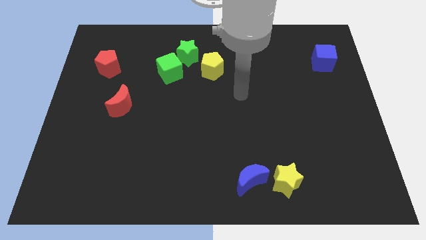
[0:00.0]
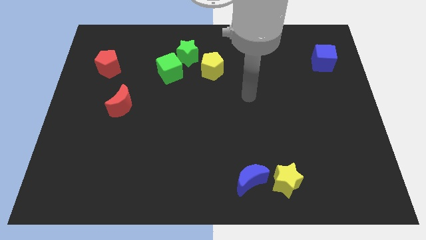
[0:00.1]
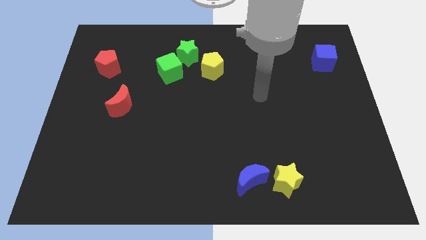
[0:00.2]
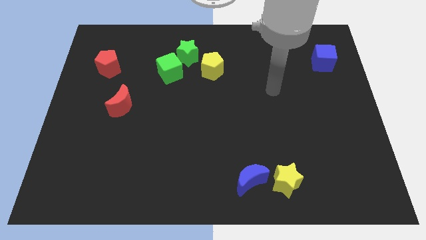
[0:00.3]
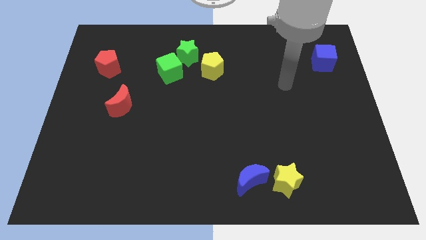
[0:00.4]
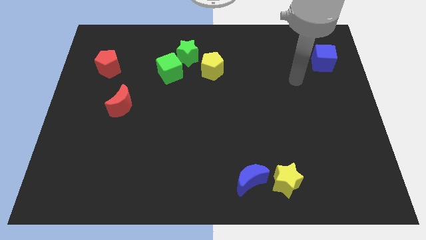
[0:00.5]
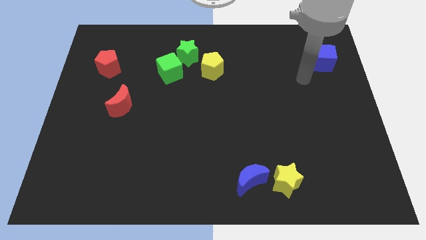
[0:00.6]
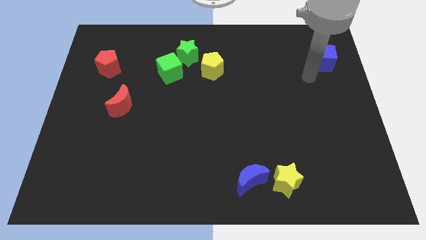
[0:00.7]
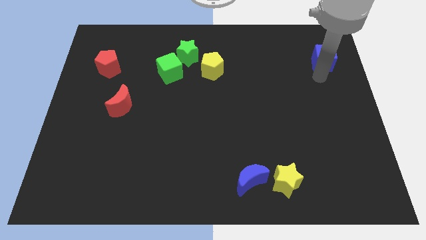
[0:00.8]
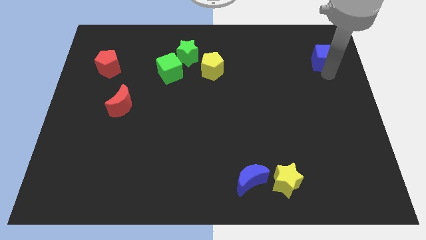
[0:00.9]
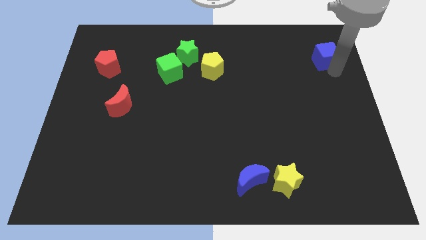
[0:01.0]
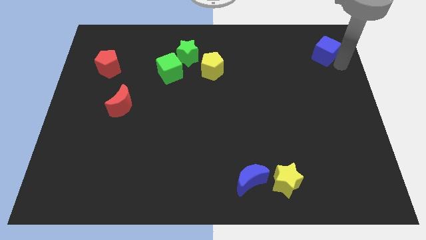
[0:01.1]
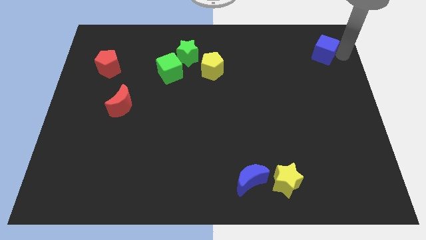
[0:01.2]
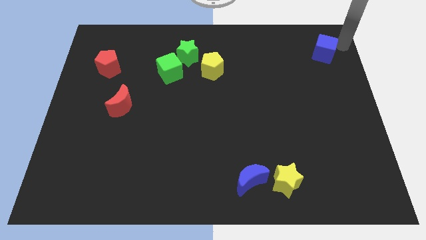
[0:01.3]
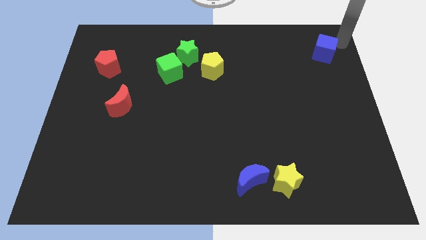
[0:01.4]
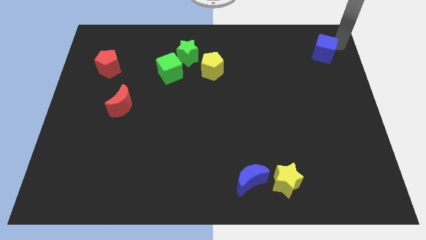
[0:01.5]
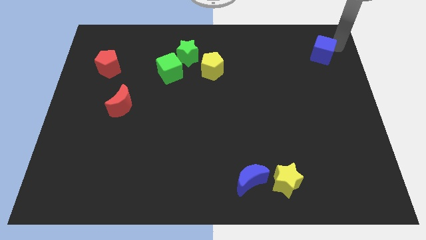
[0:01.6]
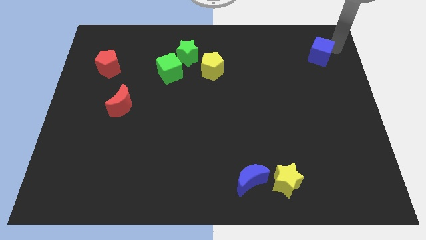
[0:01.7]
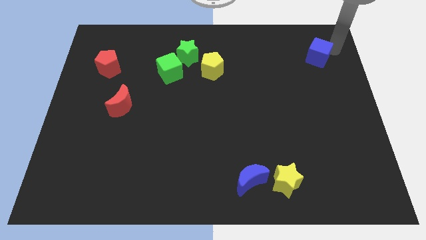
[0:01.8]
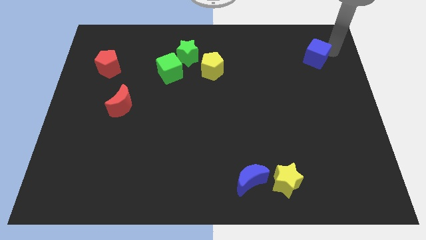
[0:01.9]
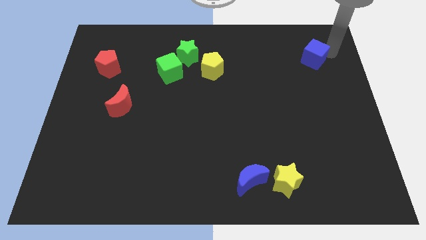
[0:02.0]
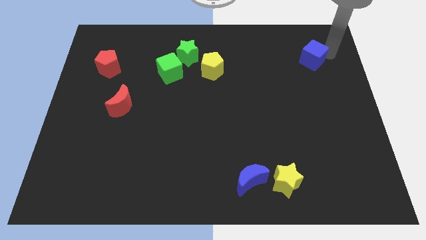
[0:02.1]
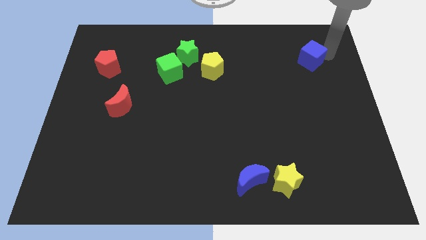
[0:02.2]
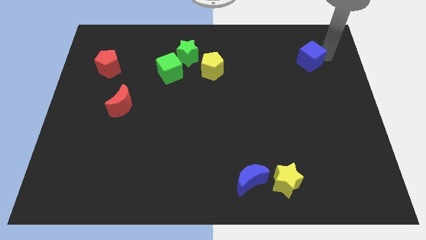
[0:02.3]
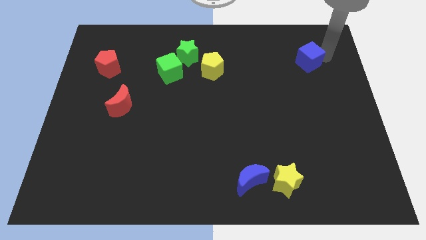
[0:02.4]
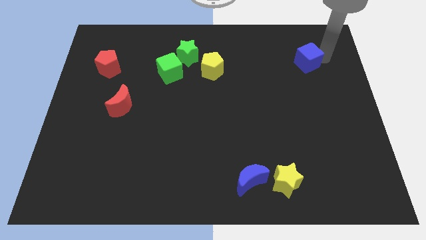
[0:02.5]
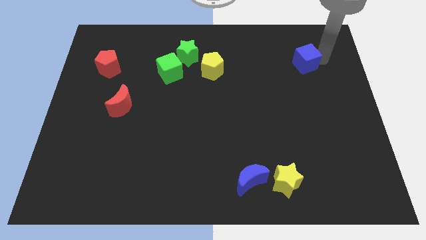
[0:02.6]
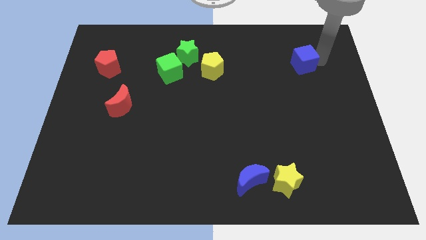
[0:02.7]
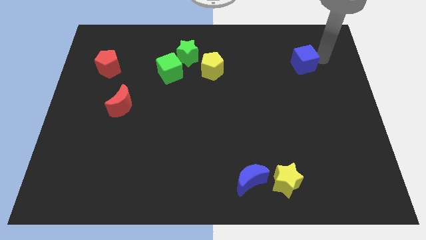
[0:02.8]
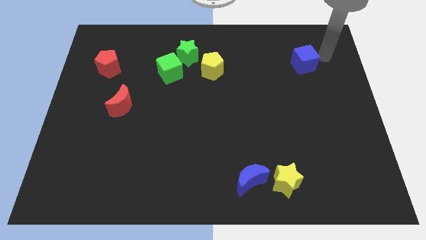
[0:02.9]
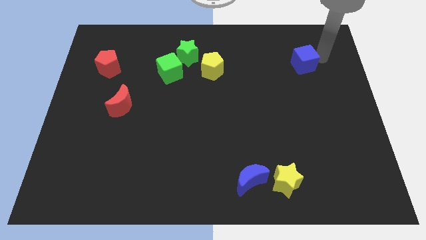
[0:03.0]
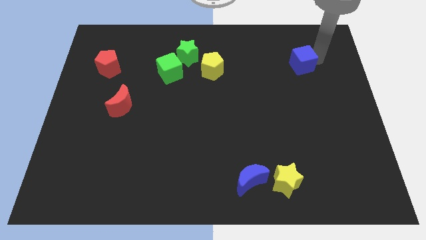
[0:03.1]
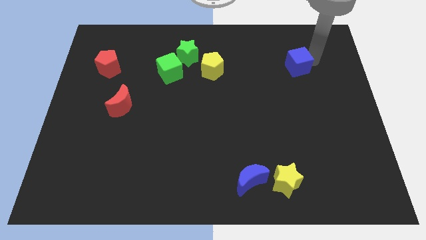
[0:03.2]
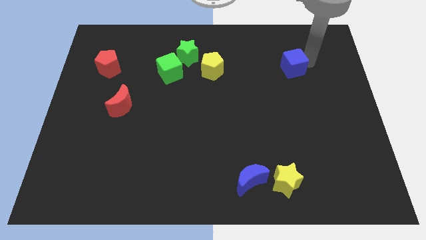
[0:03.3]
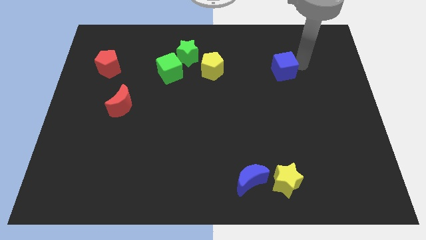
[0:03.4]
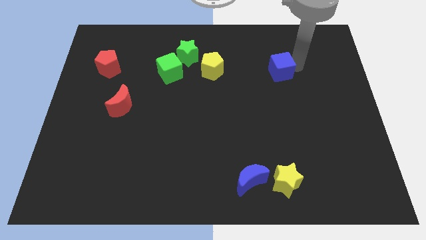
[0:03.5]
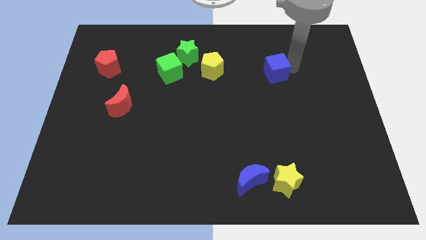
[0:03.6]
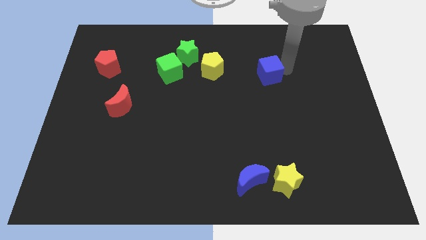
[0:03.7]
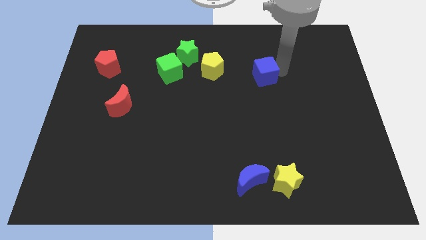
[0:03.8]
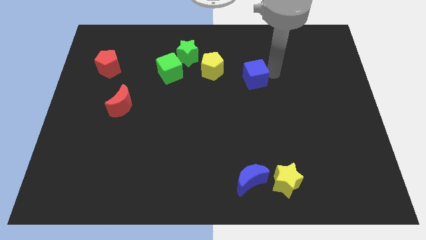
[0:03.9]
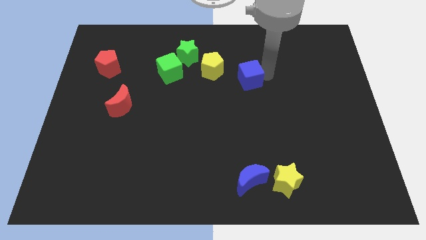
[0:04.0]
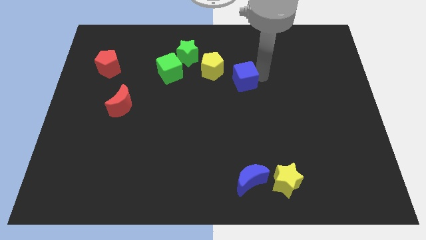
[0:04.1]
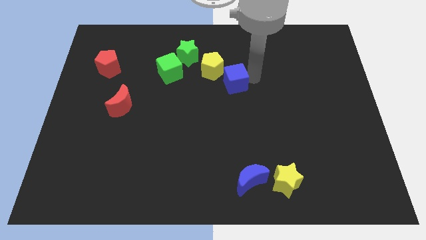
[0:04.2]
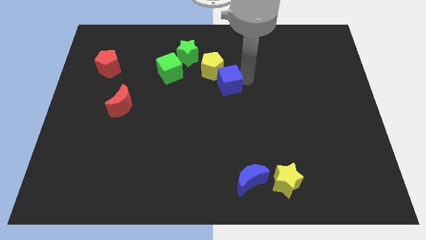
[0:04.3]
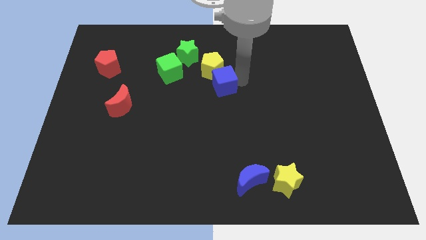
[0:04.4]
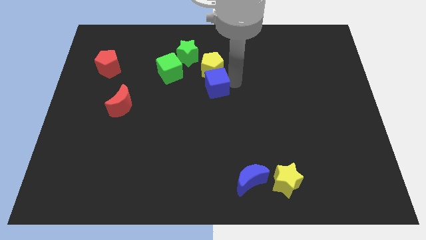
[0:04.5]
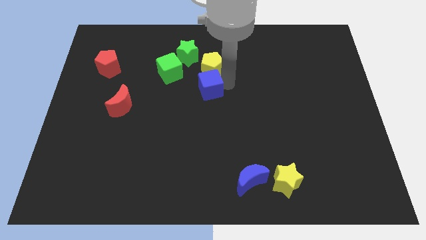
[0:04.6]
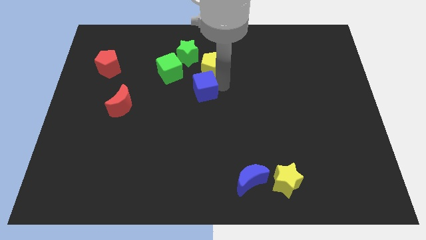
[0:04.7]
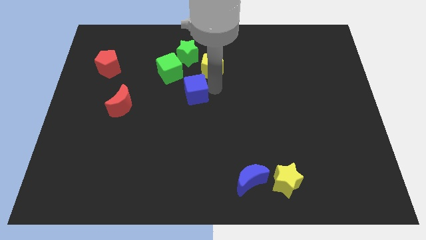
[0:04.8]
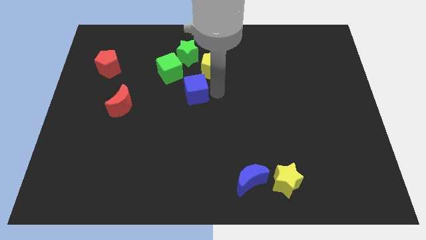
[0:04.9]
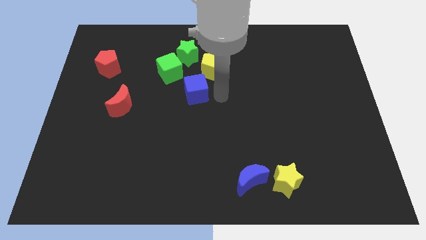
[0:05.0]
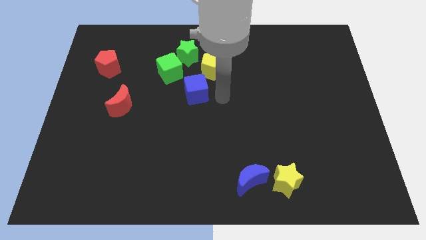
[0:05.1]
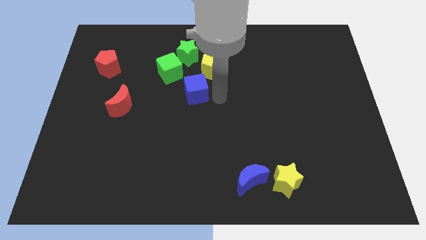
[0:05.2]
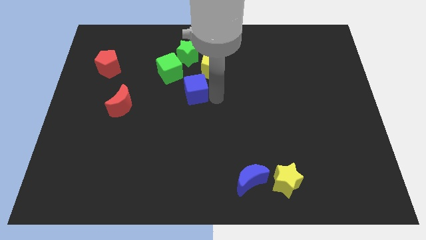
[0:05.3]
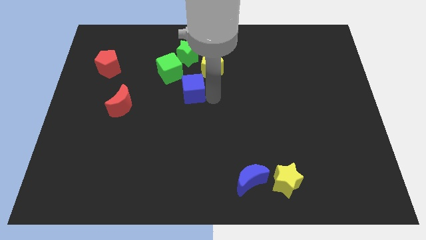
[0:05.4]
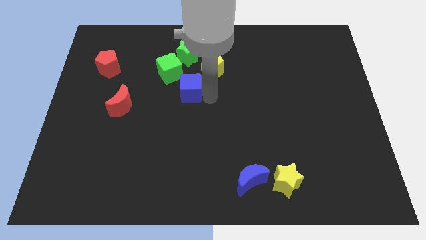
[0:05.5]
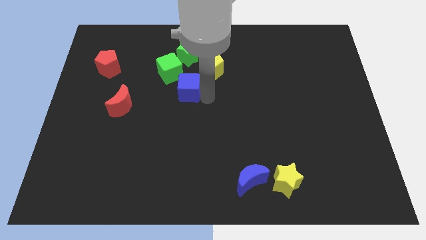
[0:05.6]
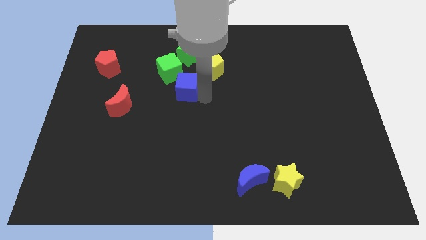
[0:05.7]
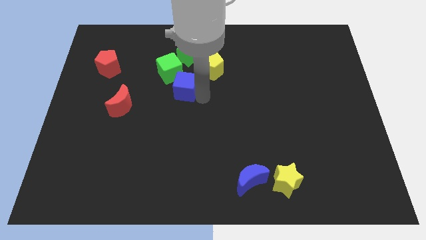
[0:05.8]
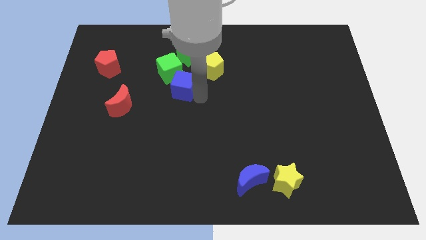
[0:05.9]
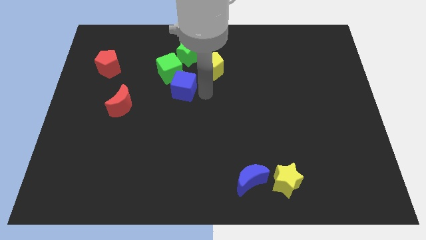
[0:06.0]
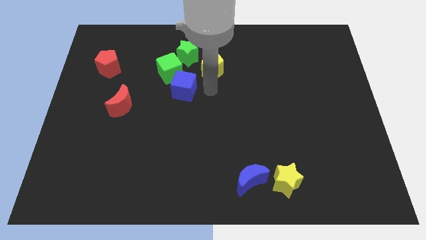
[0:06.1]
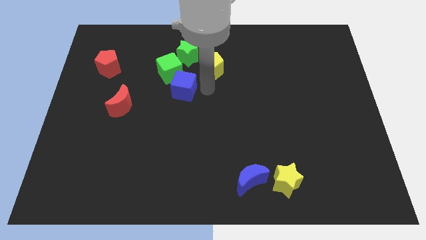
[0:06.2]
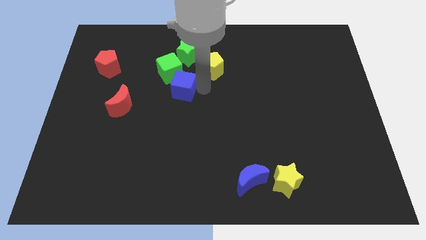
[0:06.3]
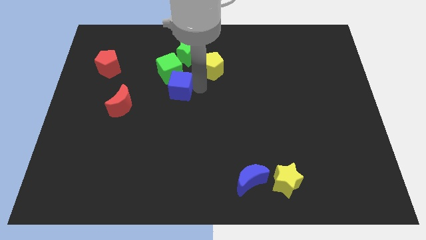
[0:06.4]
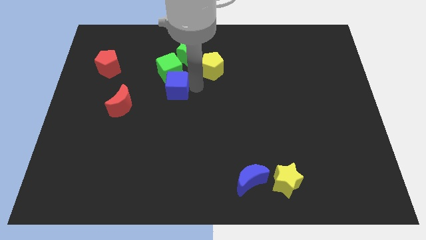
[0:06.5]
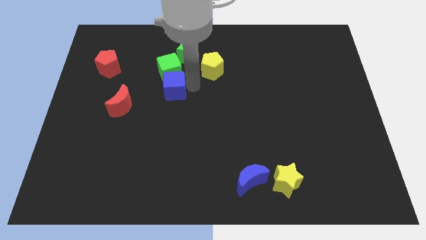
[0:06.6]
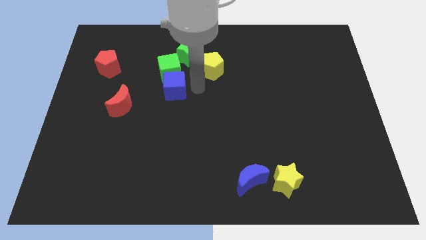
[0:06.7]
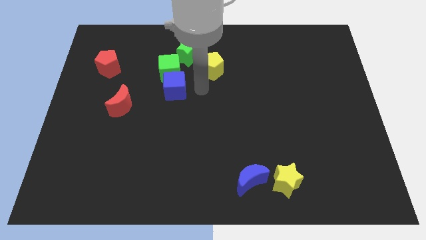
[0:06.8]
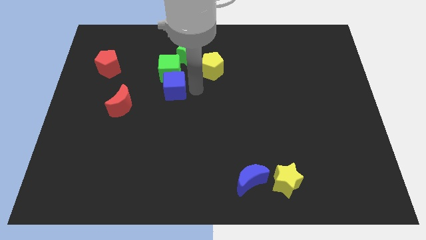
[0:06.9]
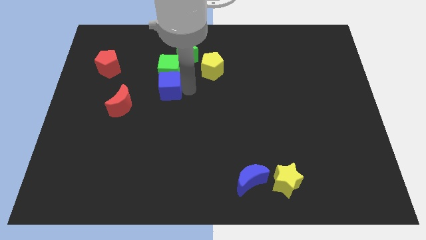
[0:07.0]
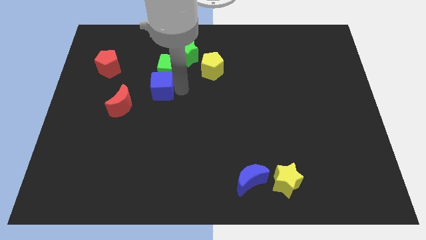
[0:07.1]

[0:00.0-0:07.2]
push the blue cube to the top right side of the red moon
